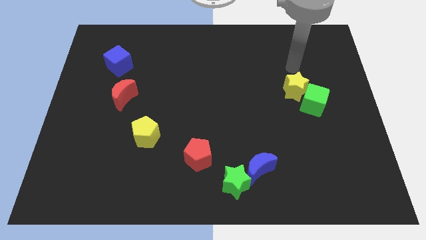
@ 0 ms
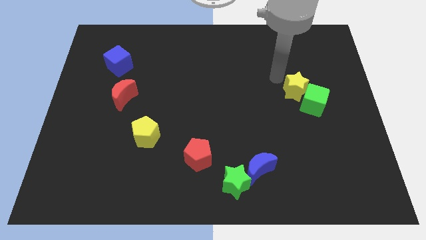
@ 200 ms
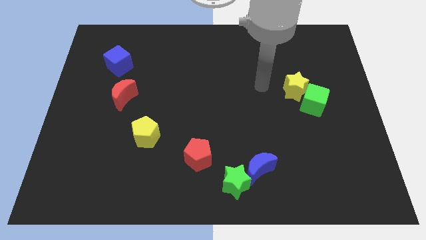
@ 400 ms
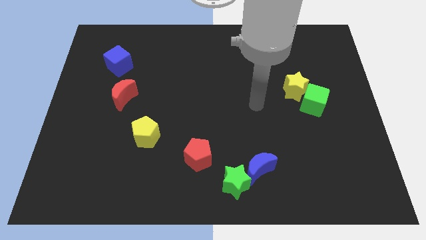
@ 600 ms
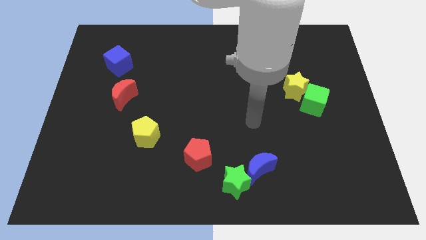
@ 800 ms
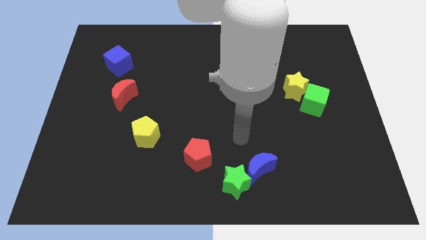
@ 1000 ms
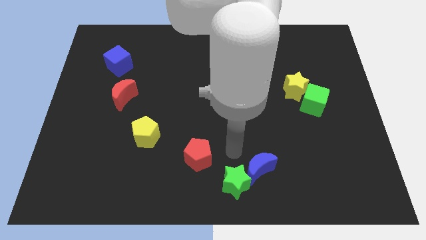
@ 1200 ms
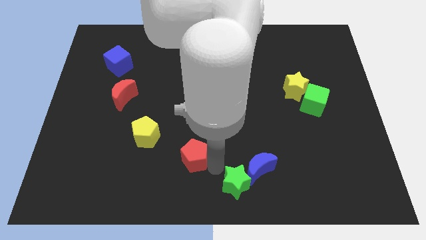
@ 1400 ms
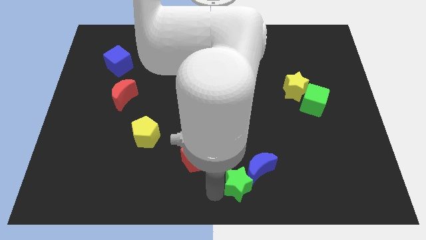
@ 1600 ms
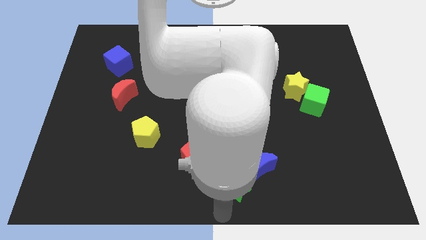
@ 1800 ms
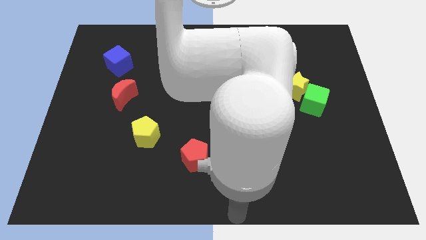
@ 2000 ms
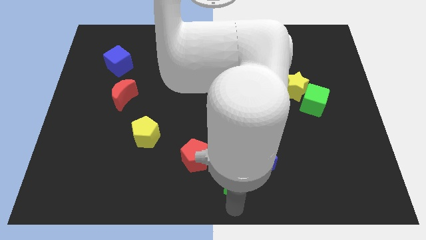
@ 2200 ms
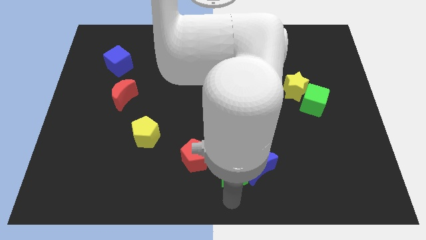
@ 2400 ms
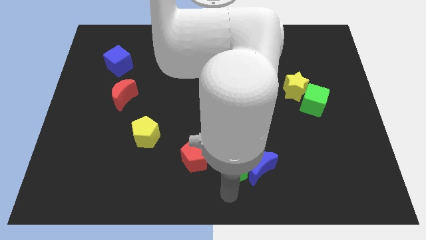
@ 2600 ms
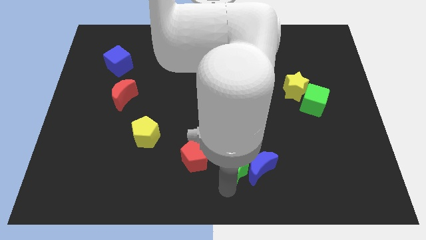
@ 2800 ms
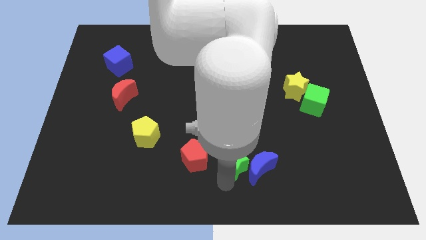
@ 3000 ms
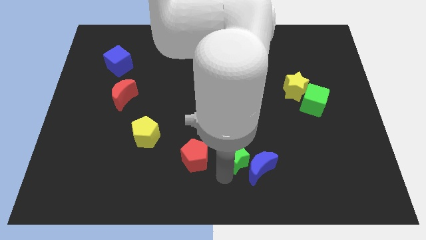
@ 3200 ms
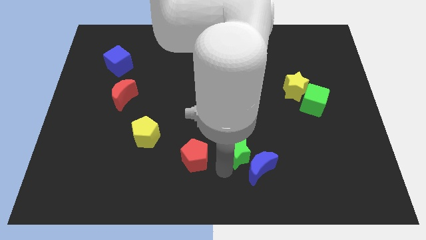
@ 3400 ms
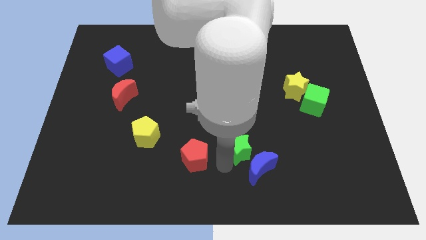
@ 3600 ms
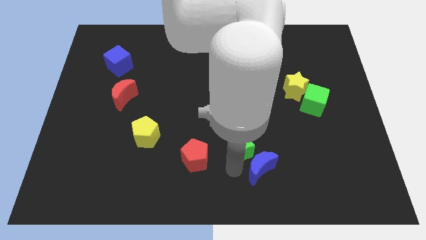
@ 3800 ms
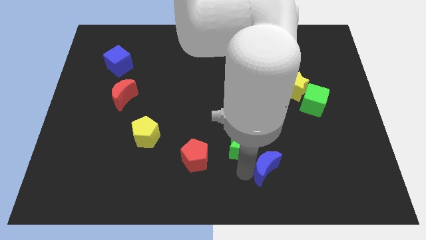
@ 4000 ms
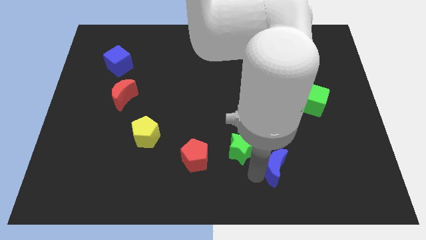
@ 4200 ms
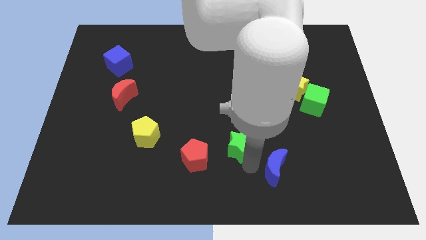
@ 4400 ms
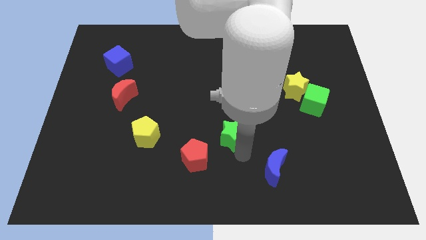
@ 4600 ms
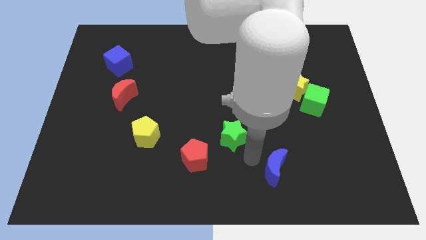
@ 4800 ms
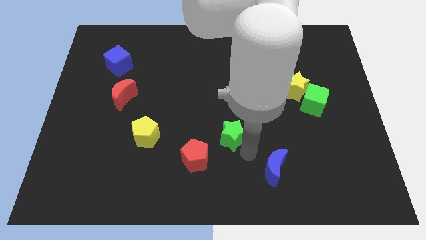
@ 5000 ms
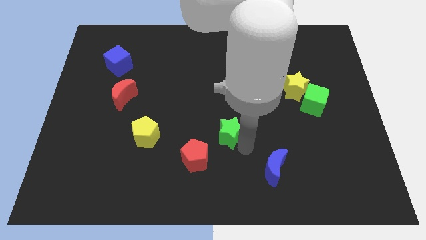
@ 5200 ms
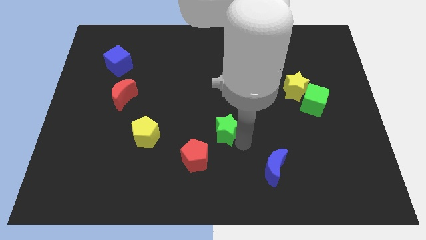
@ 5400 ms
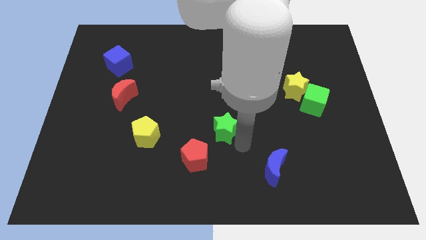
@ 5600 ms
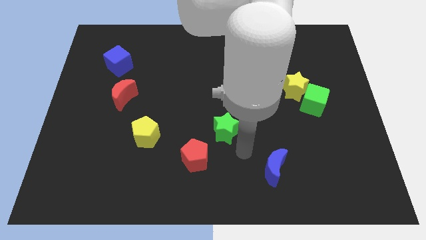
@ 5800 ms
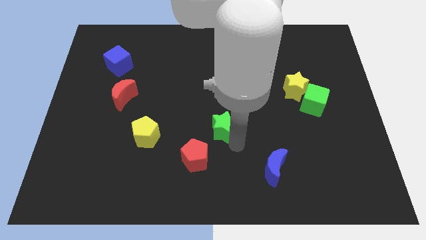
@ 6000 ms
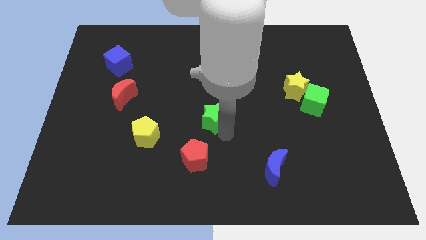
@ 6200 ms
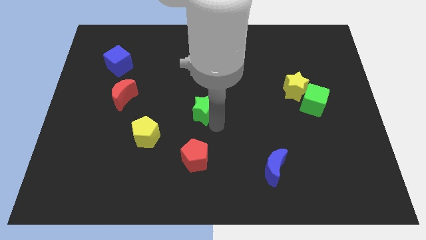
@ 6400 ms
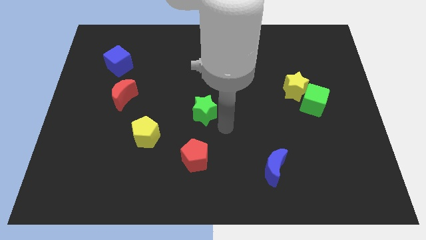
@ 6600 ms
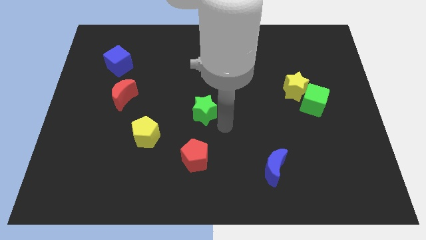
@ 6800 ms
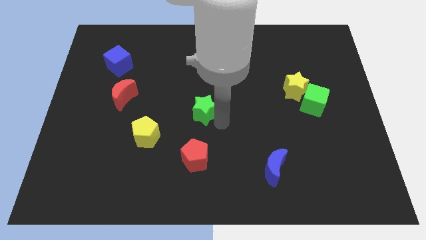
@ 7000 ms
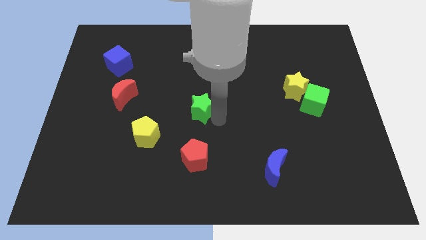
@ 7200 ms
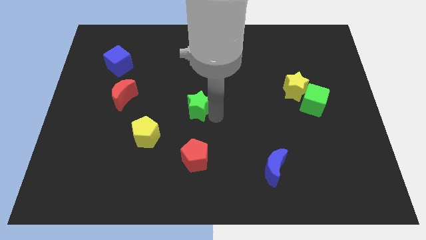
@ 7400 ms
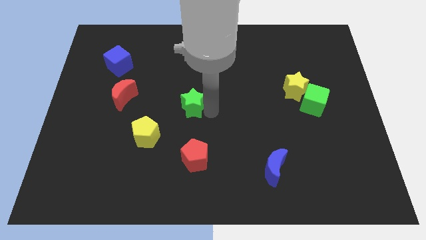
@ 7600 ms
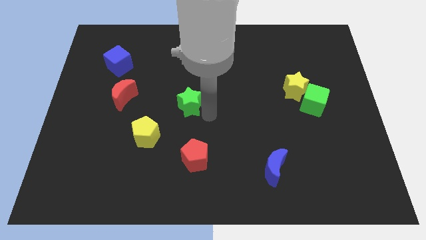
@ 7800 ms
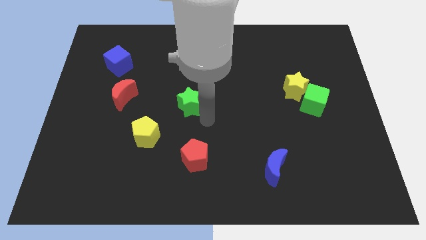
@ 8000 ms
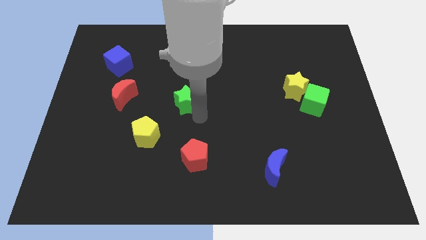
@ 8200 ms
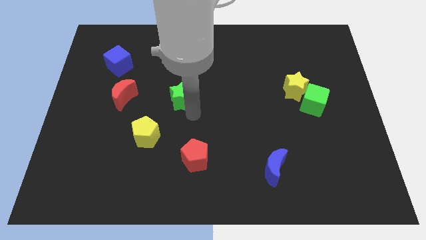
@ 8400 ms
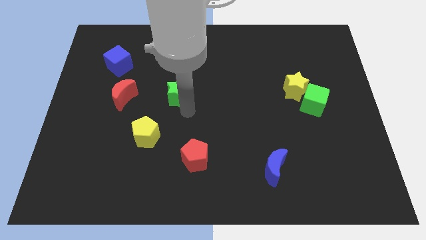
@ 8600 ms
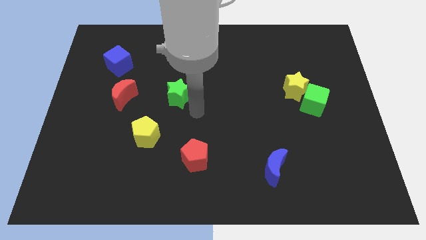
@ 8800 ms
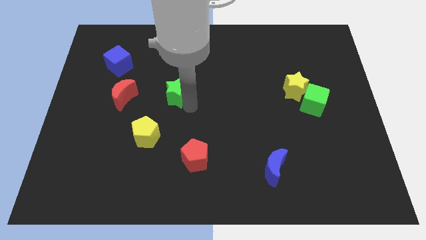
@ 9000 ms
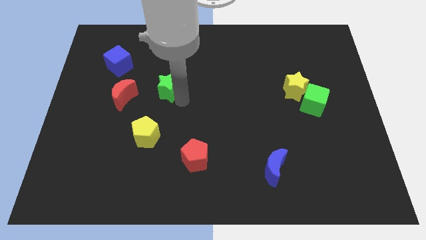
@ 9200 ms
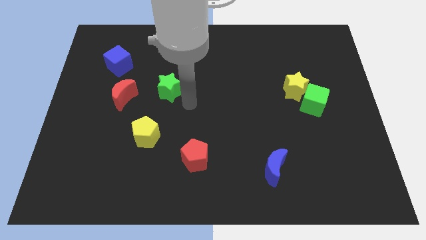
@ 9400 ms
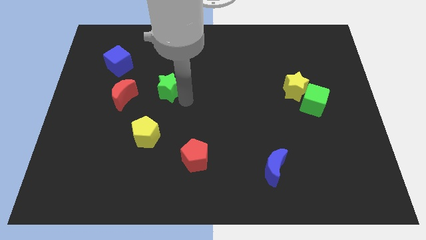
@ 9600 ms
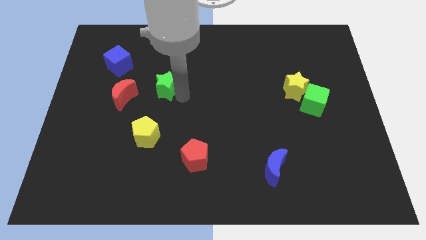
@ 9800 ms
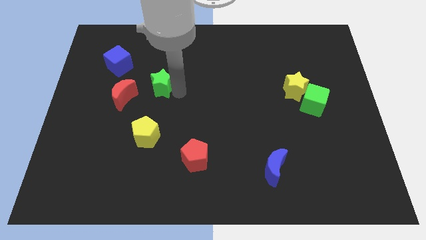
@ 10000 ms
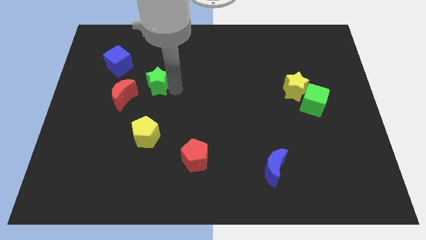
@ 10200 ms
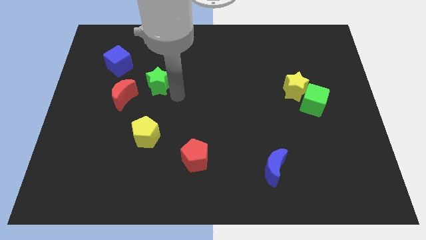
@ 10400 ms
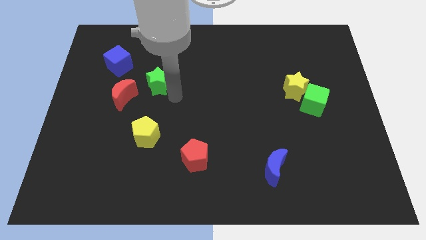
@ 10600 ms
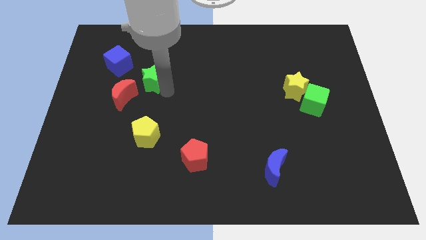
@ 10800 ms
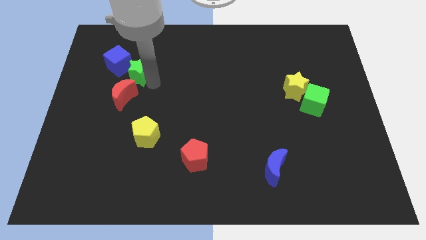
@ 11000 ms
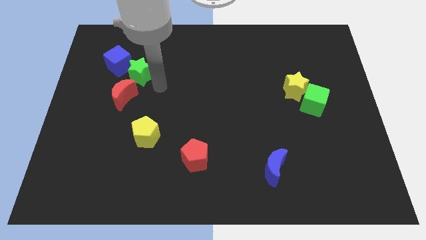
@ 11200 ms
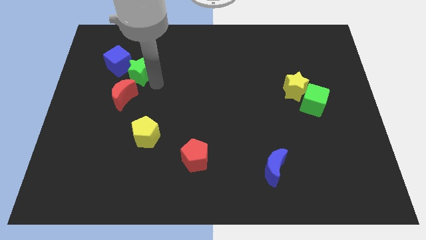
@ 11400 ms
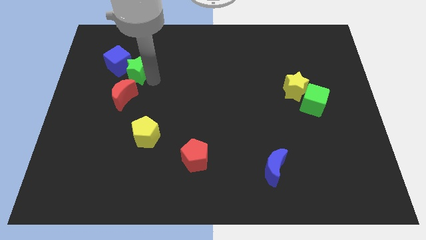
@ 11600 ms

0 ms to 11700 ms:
slide the green star close to the blue cube

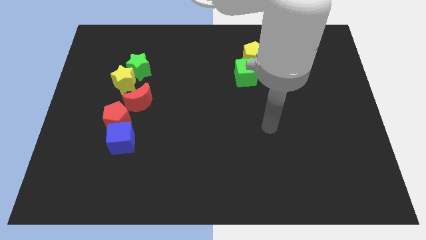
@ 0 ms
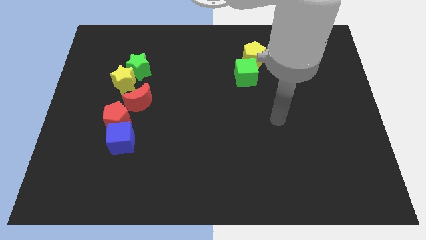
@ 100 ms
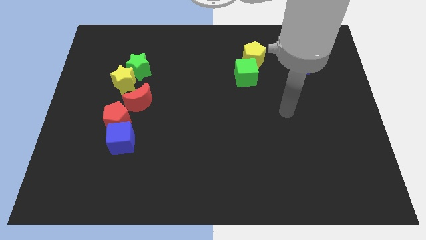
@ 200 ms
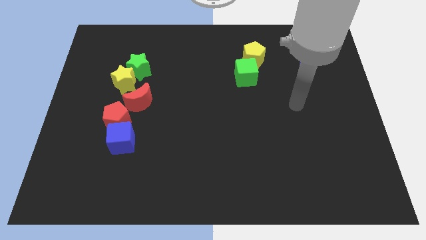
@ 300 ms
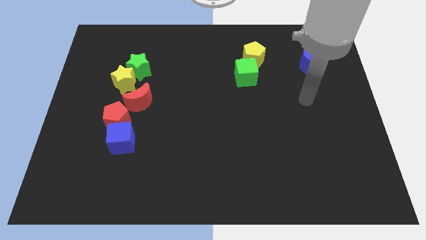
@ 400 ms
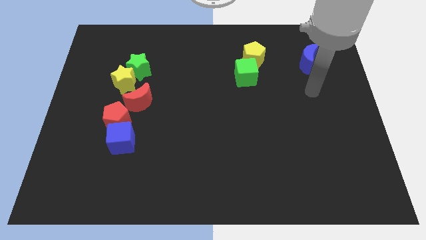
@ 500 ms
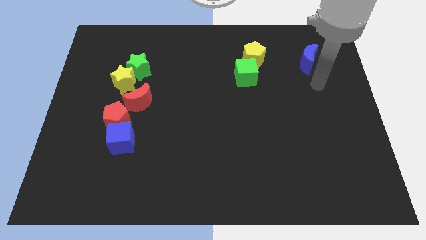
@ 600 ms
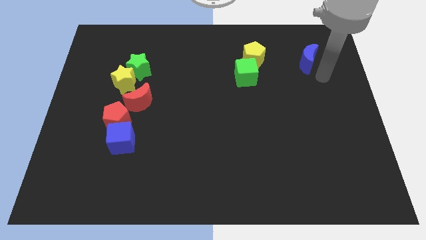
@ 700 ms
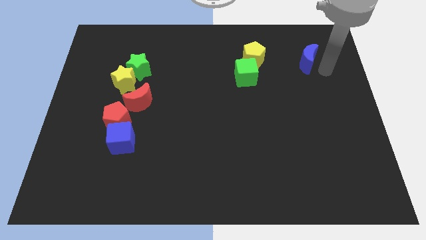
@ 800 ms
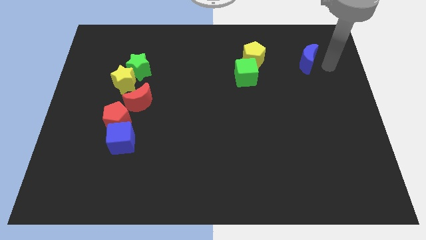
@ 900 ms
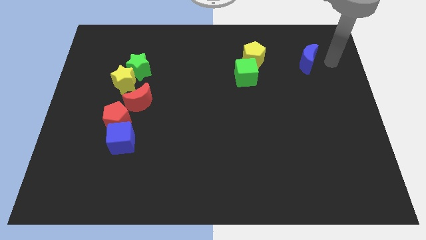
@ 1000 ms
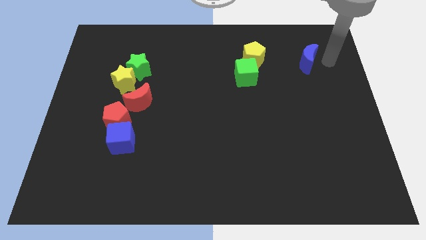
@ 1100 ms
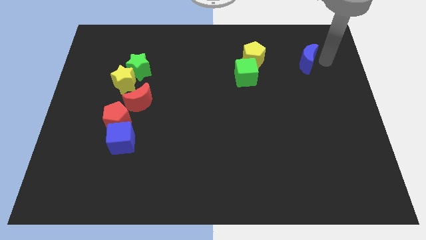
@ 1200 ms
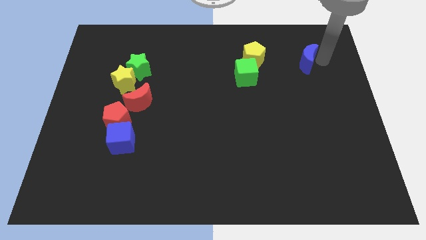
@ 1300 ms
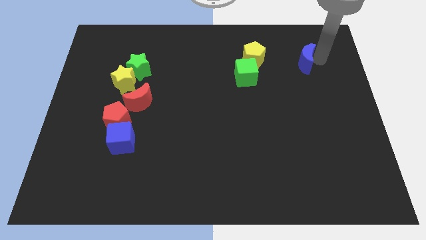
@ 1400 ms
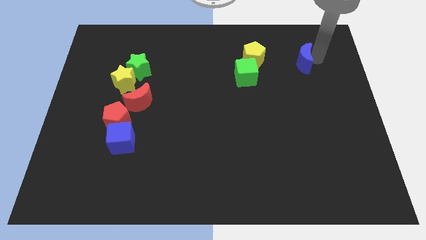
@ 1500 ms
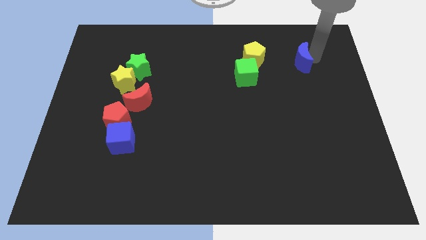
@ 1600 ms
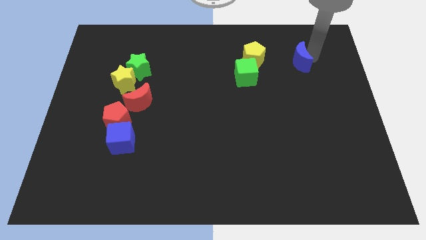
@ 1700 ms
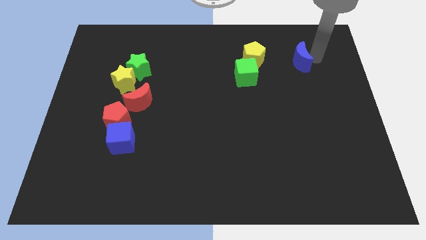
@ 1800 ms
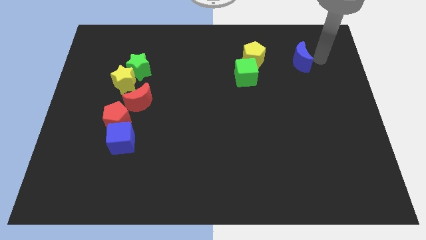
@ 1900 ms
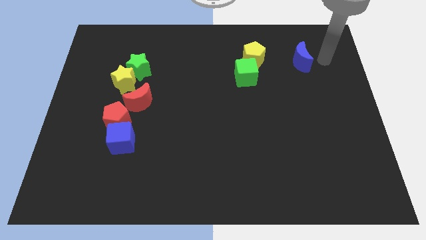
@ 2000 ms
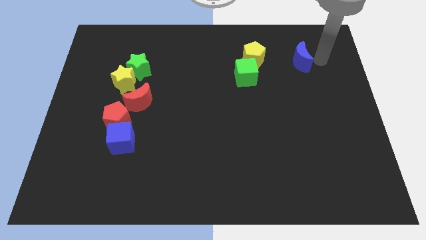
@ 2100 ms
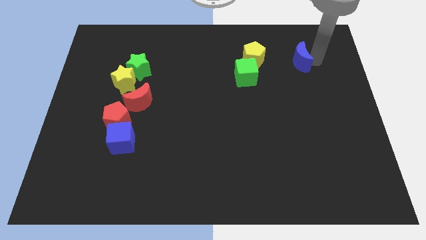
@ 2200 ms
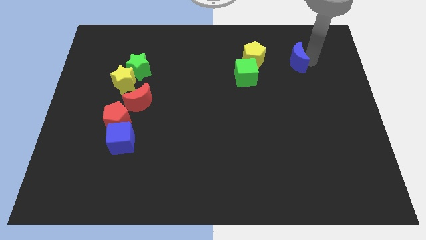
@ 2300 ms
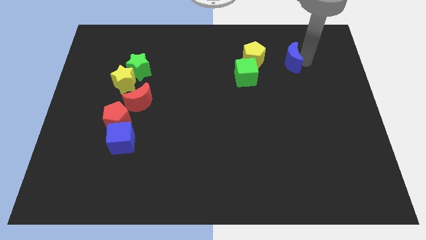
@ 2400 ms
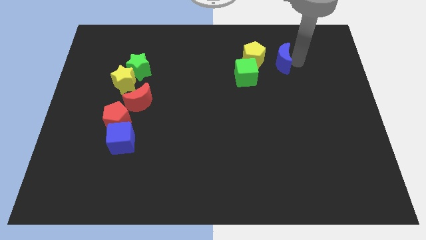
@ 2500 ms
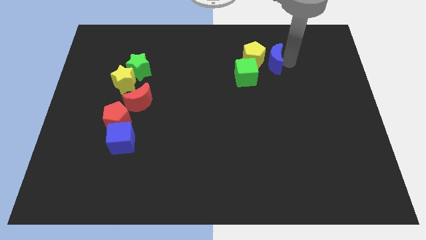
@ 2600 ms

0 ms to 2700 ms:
push the blue moon next to the yellow pentagon
